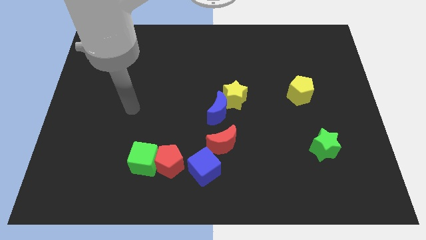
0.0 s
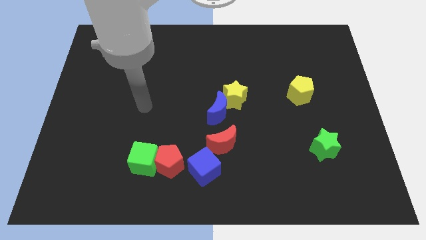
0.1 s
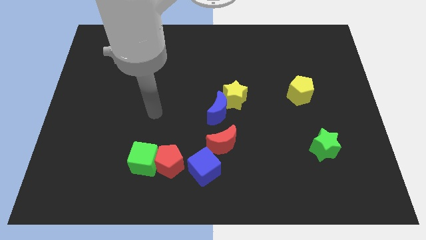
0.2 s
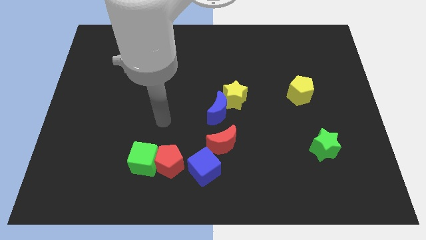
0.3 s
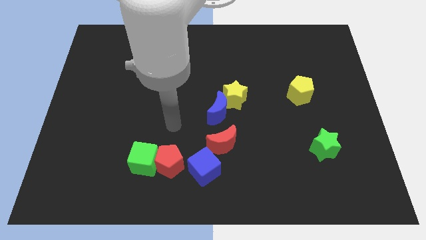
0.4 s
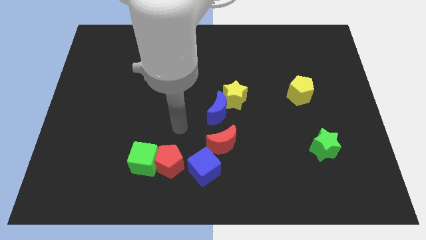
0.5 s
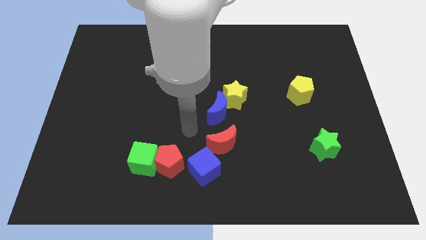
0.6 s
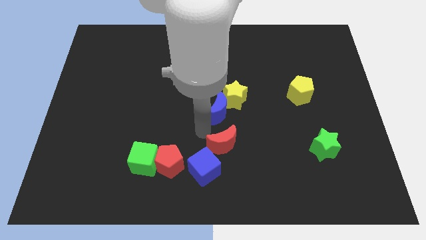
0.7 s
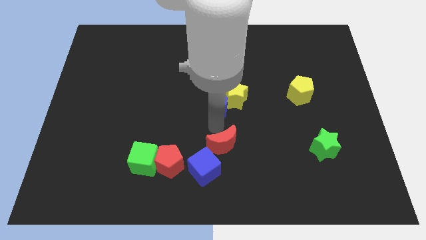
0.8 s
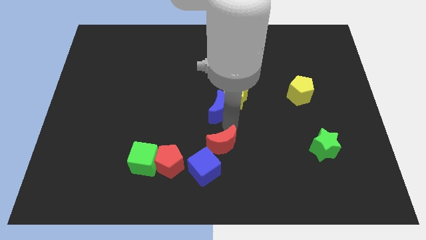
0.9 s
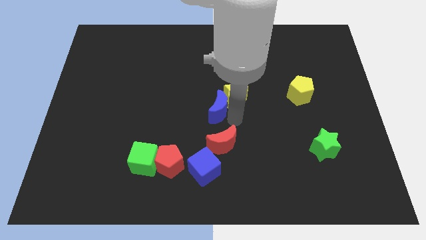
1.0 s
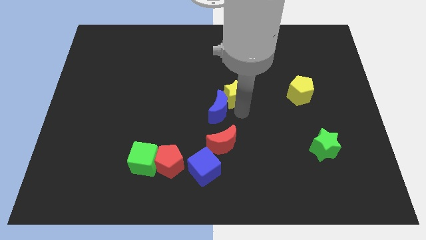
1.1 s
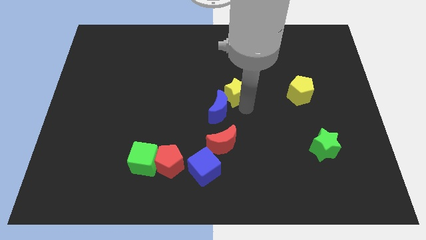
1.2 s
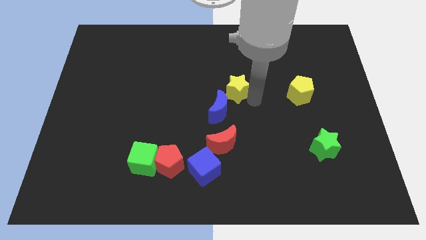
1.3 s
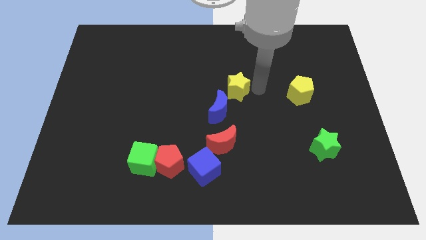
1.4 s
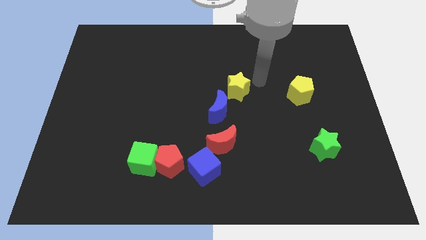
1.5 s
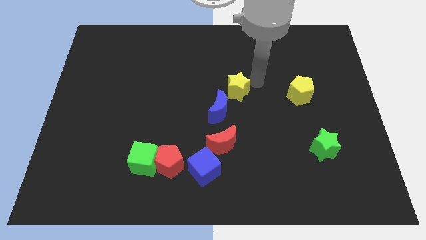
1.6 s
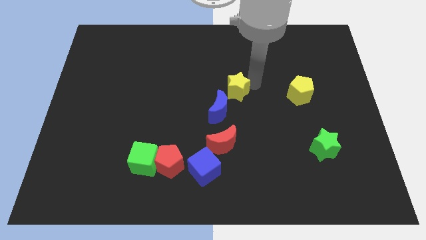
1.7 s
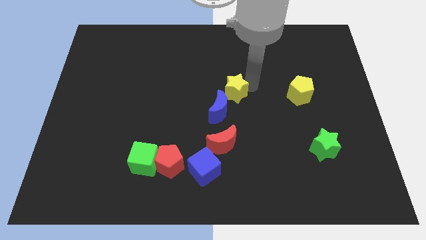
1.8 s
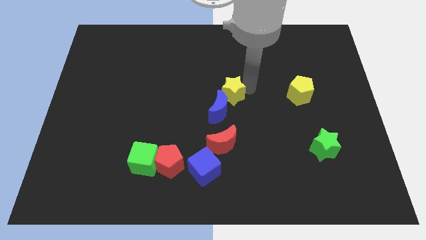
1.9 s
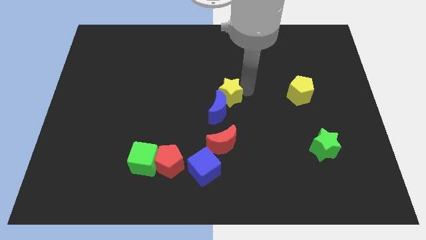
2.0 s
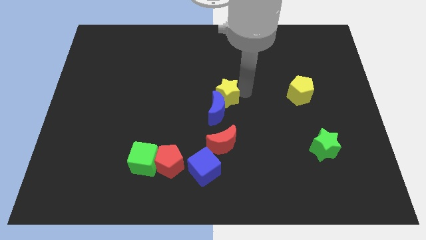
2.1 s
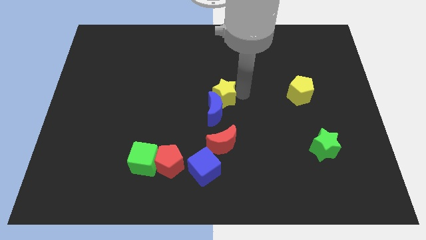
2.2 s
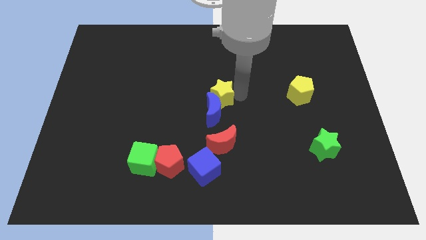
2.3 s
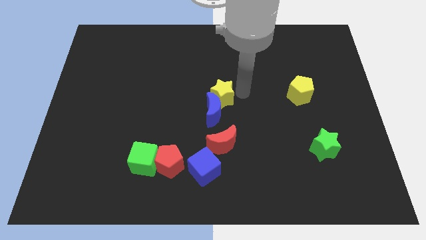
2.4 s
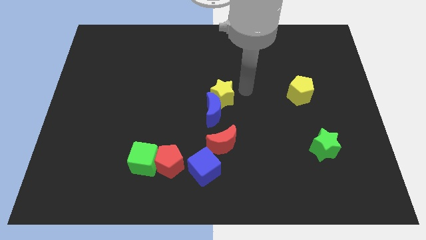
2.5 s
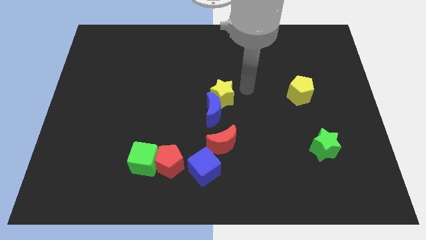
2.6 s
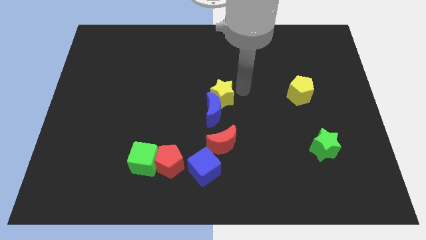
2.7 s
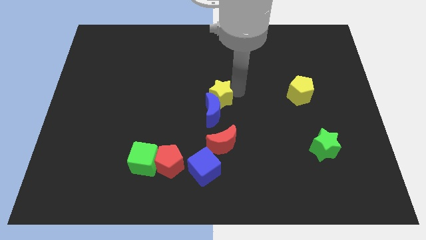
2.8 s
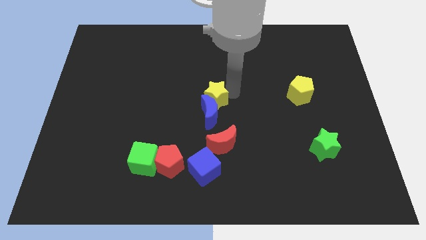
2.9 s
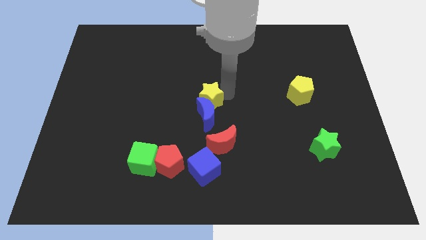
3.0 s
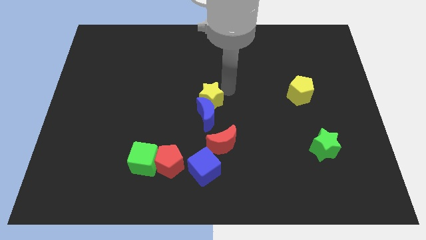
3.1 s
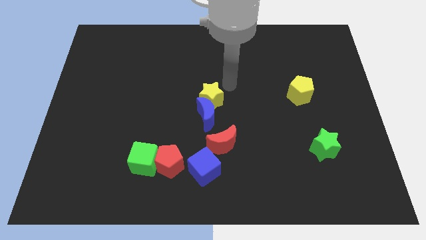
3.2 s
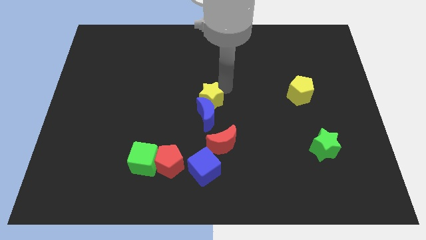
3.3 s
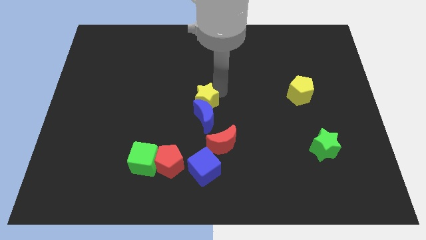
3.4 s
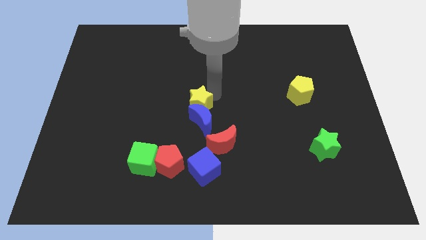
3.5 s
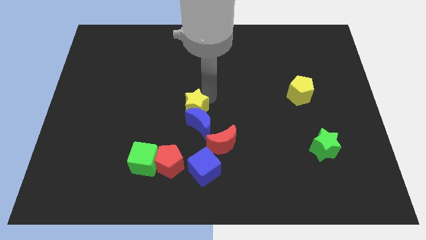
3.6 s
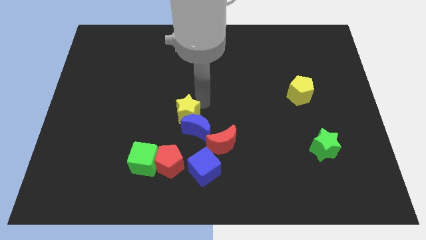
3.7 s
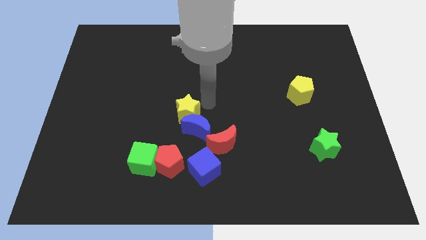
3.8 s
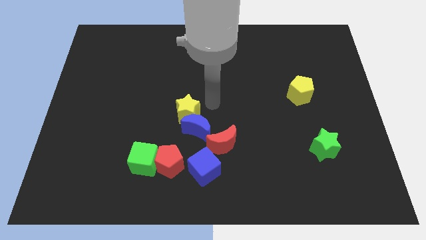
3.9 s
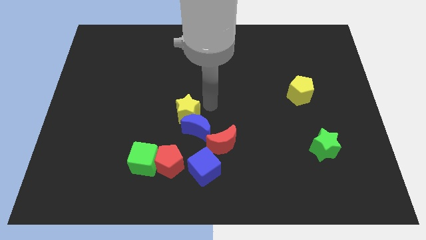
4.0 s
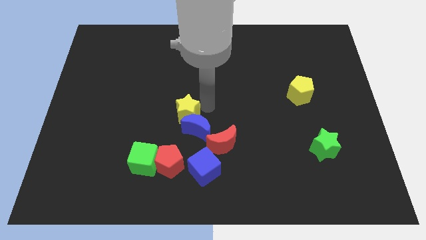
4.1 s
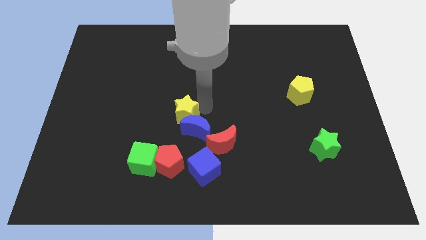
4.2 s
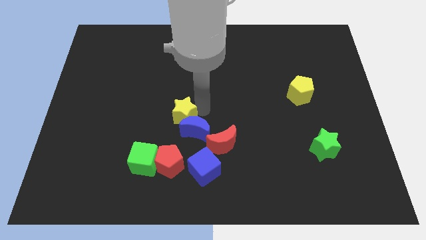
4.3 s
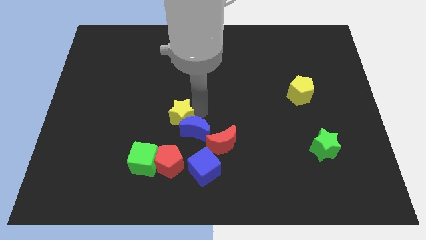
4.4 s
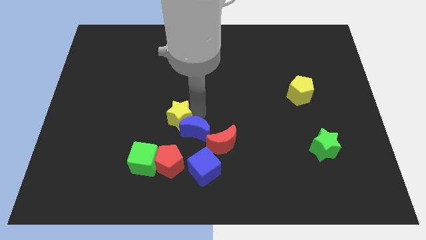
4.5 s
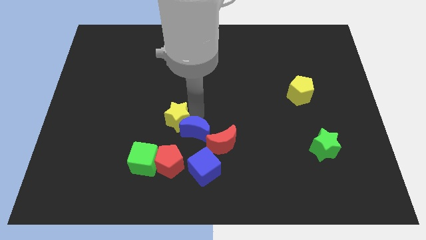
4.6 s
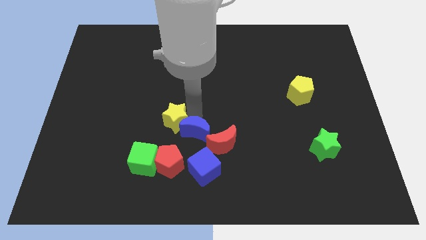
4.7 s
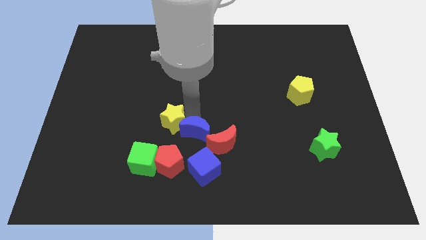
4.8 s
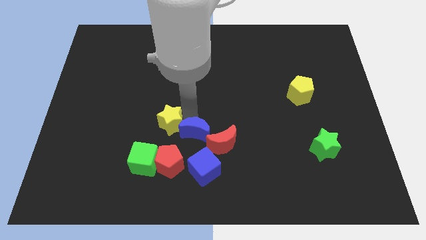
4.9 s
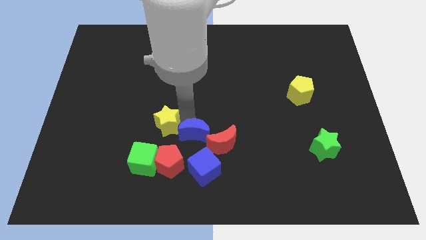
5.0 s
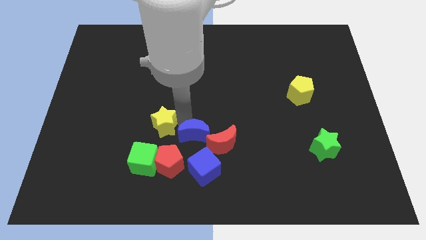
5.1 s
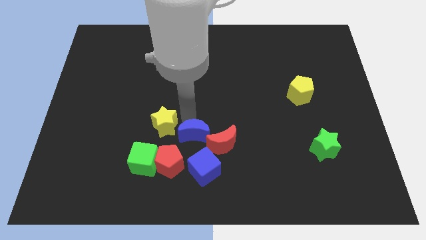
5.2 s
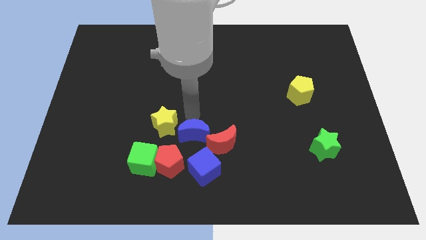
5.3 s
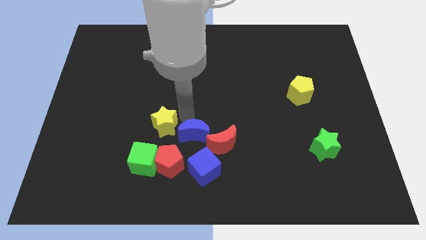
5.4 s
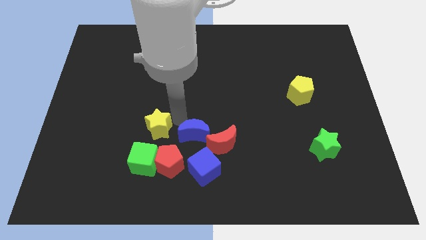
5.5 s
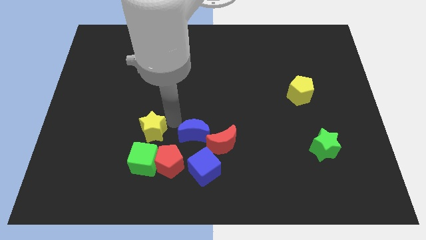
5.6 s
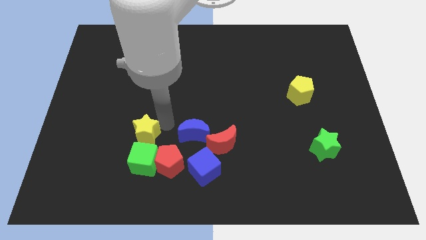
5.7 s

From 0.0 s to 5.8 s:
slide the yellow star diagonally up and to the left of the green cube

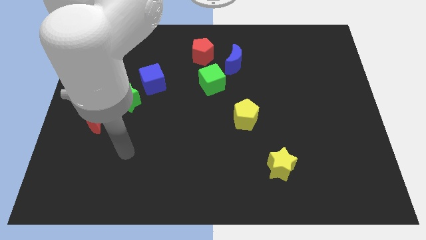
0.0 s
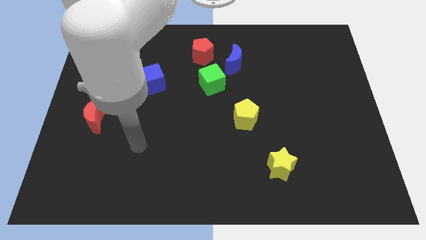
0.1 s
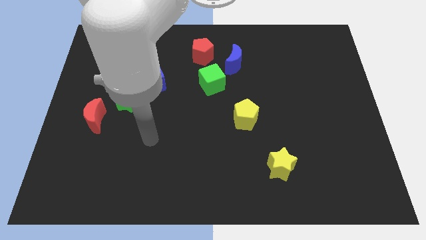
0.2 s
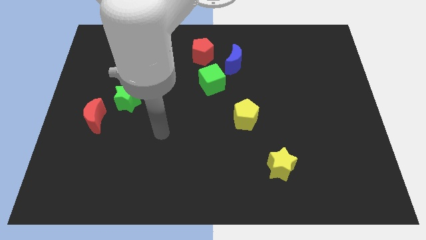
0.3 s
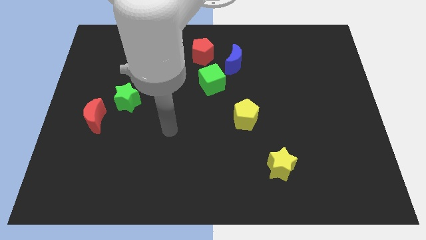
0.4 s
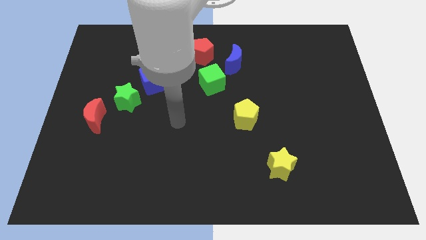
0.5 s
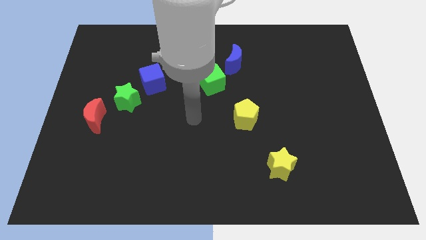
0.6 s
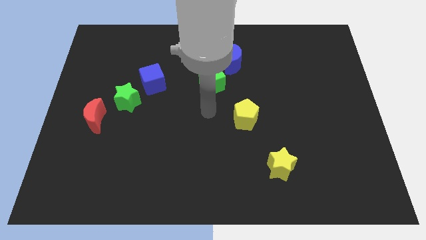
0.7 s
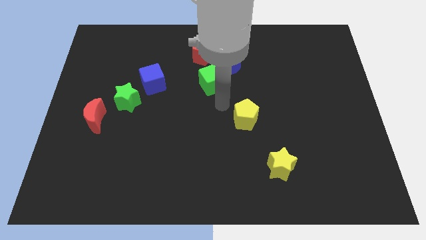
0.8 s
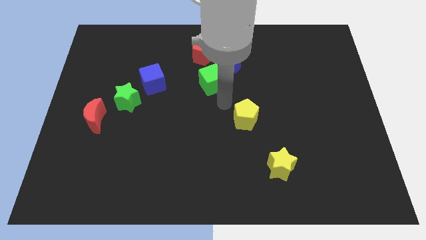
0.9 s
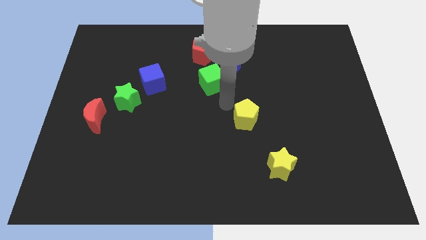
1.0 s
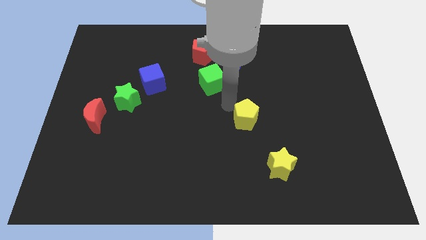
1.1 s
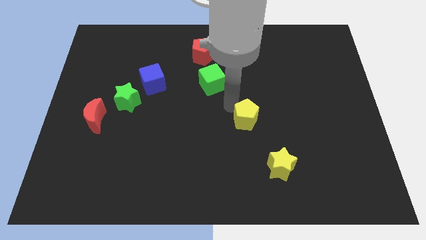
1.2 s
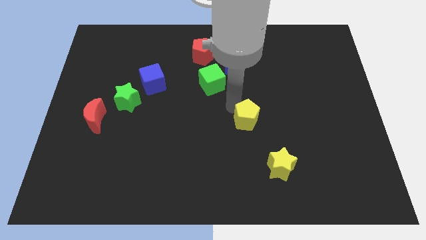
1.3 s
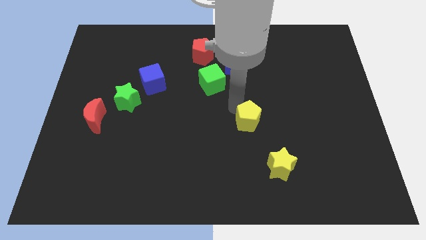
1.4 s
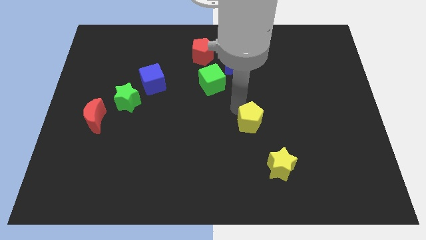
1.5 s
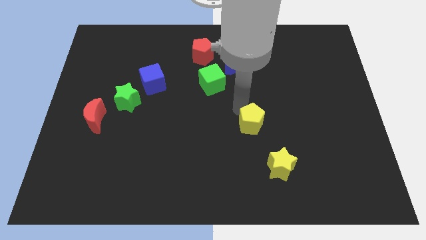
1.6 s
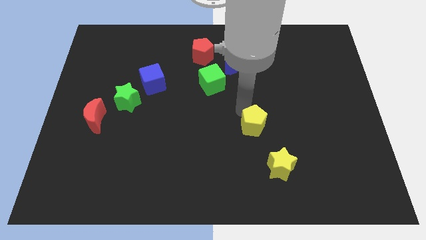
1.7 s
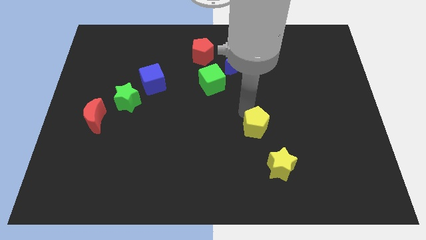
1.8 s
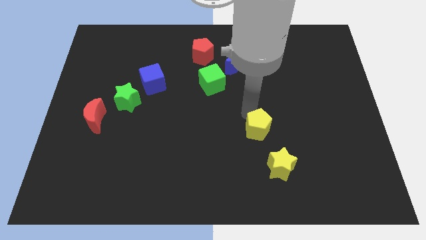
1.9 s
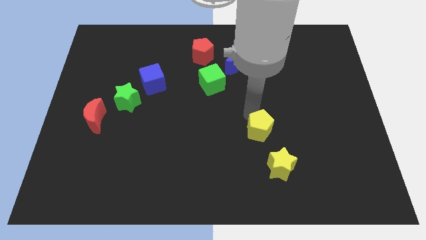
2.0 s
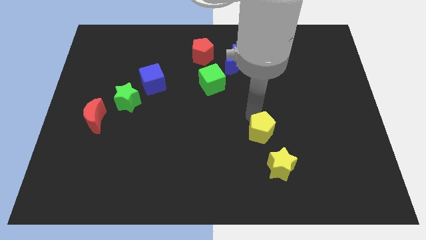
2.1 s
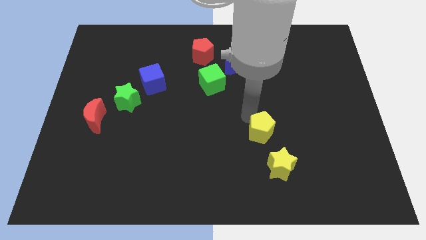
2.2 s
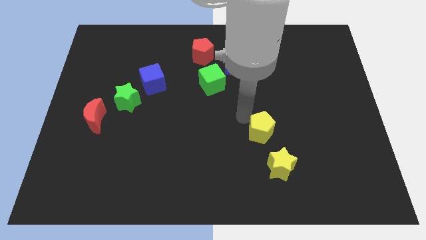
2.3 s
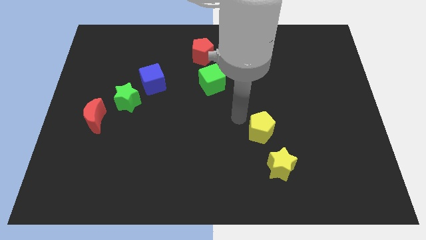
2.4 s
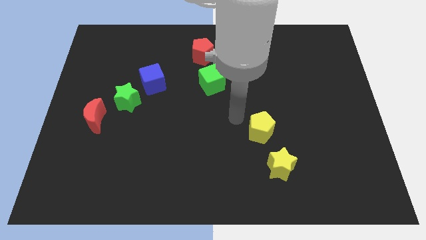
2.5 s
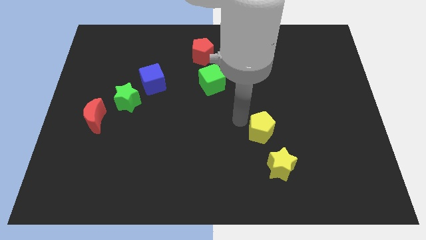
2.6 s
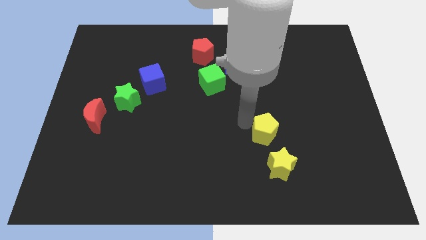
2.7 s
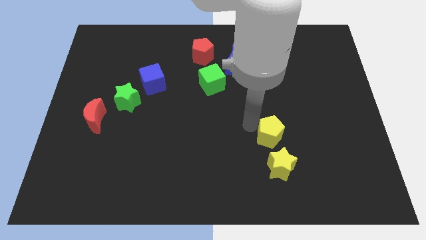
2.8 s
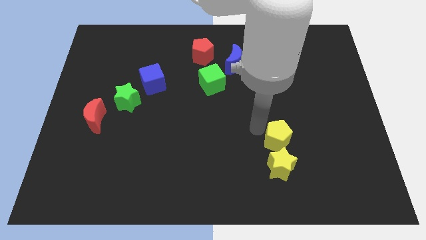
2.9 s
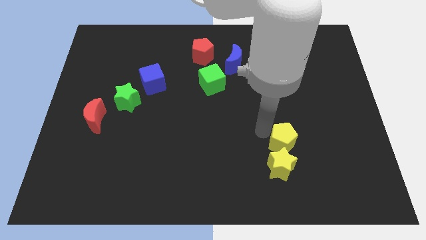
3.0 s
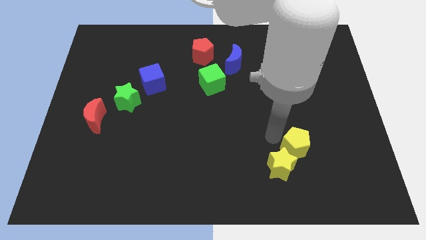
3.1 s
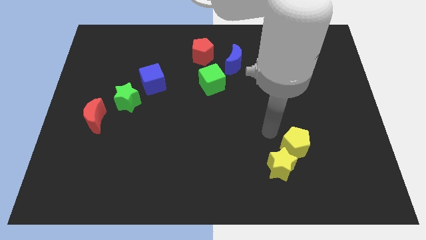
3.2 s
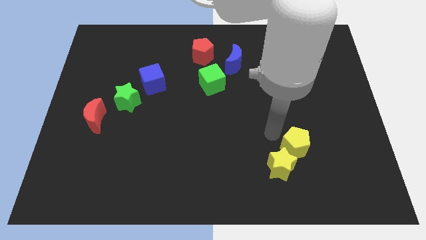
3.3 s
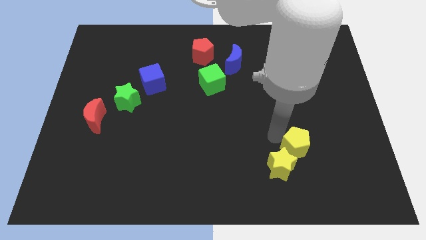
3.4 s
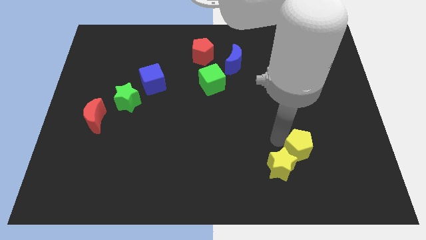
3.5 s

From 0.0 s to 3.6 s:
slide the yellow pentagon to the right of the yellow star
